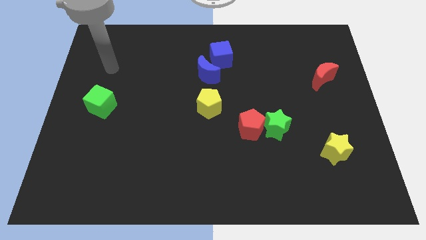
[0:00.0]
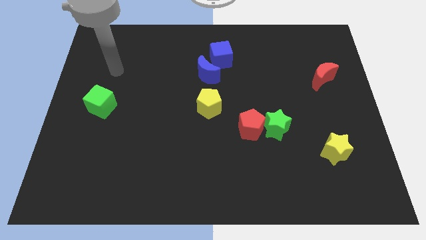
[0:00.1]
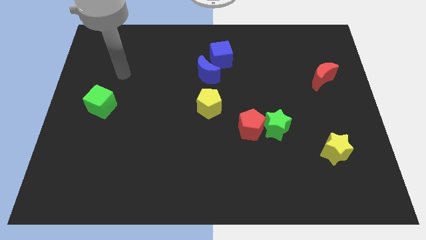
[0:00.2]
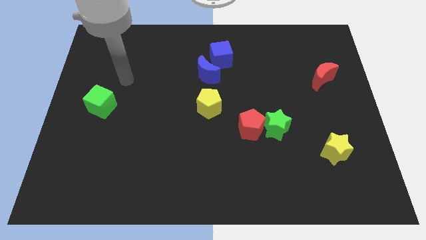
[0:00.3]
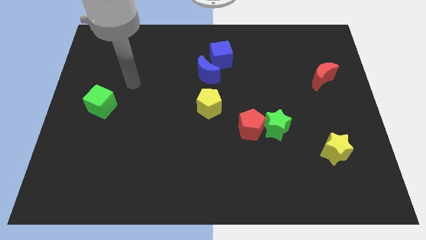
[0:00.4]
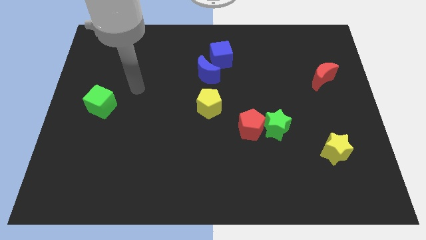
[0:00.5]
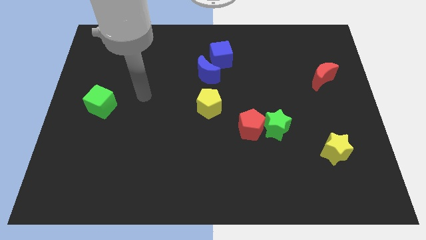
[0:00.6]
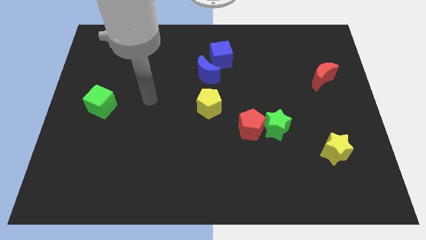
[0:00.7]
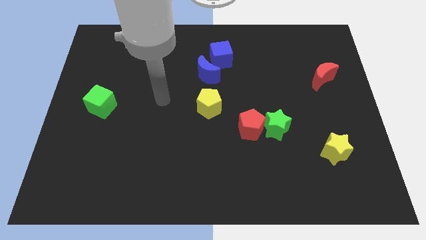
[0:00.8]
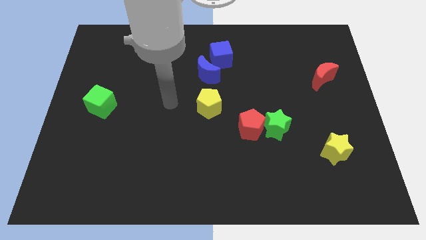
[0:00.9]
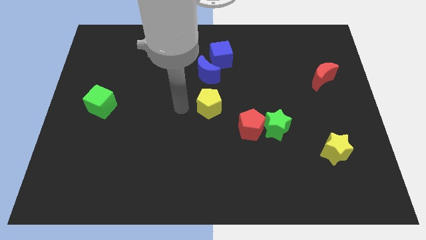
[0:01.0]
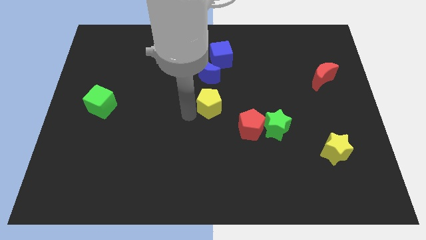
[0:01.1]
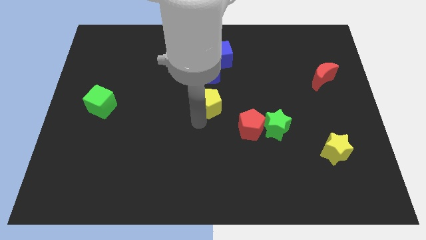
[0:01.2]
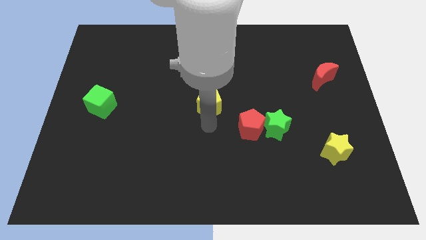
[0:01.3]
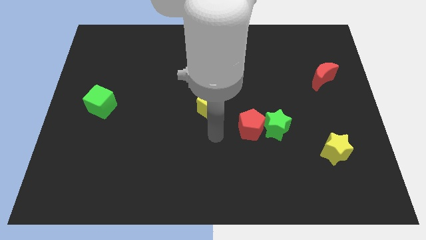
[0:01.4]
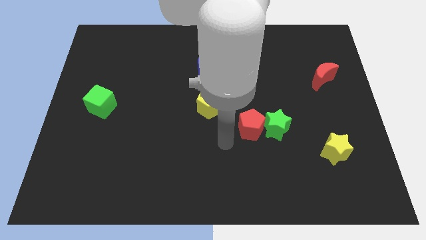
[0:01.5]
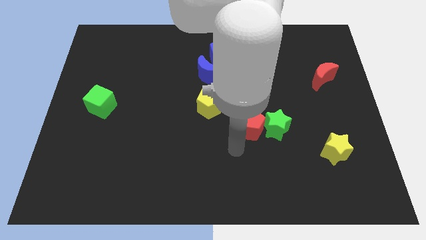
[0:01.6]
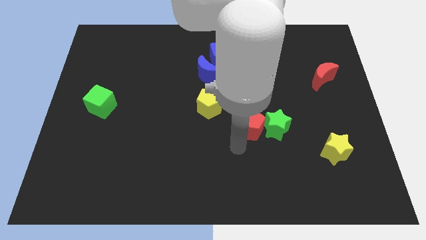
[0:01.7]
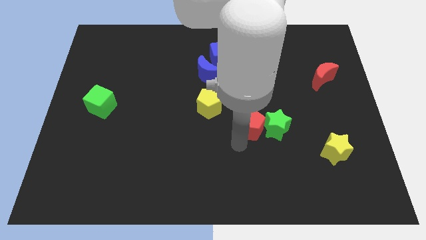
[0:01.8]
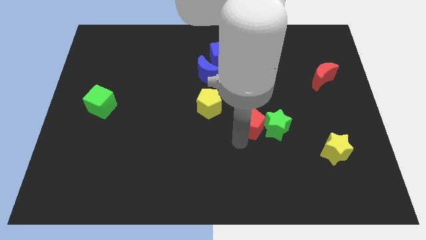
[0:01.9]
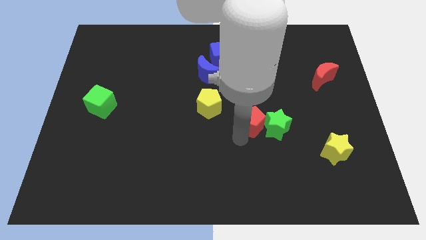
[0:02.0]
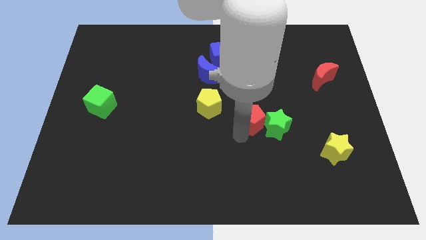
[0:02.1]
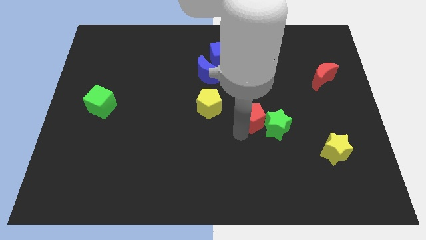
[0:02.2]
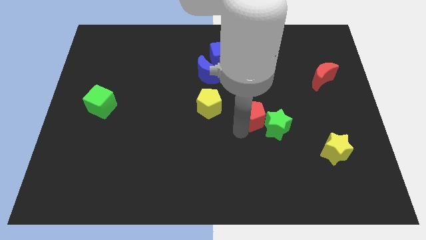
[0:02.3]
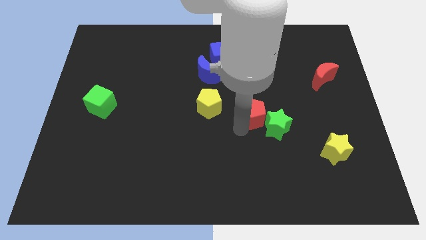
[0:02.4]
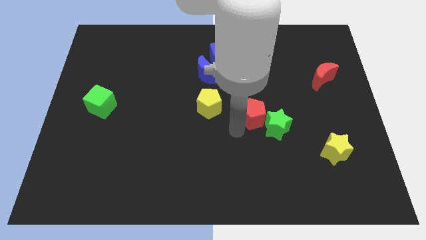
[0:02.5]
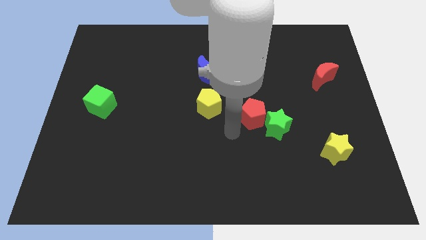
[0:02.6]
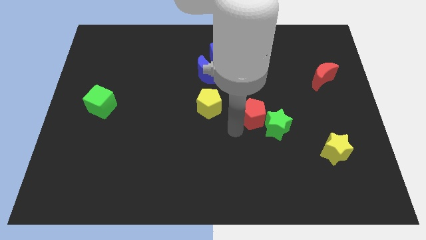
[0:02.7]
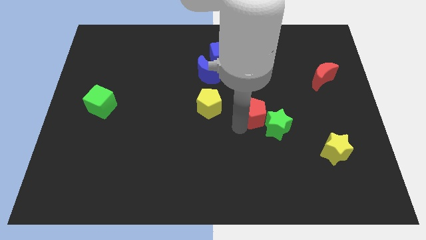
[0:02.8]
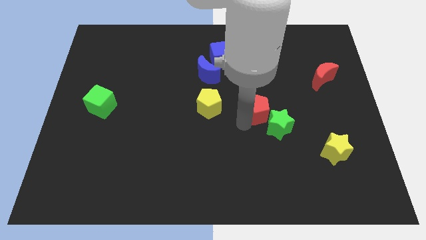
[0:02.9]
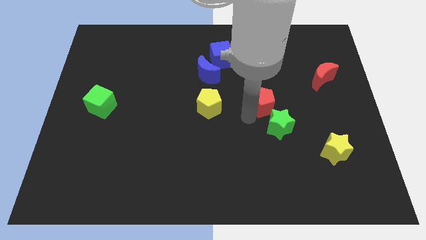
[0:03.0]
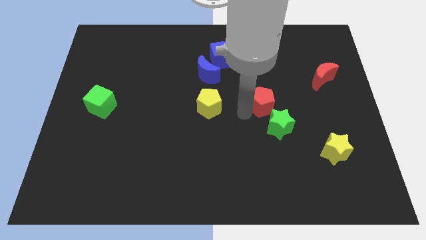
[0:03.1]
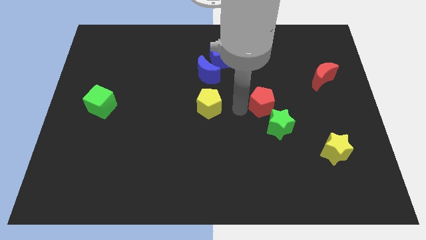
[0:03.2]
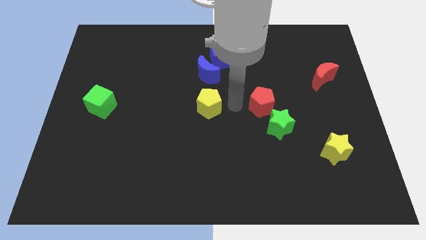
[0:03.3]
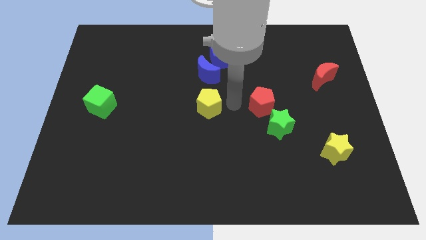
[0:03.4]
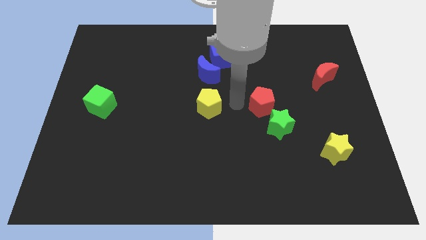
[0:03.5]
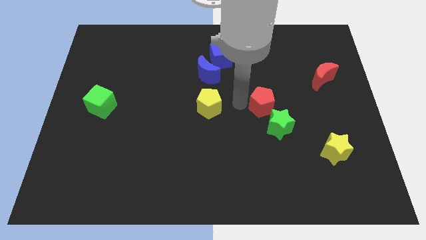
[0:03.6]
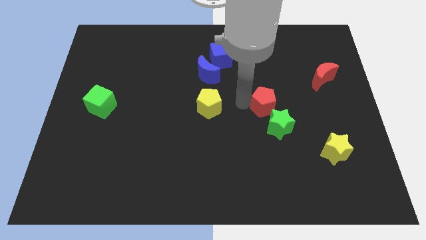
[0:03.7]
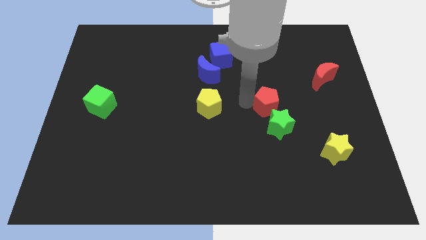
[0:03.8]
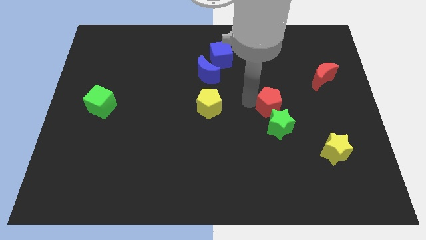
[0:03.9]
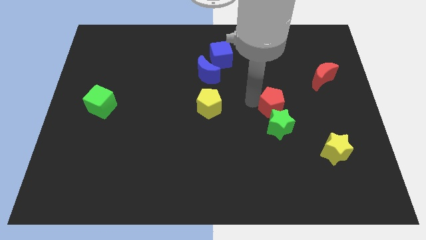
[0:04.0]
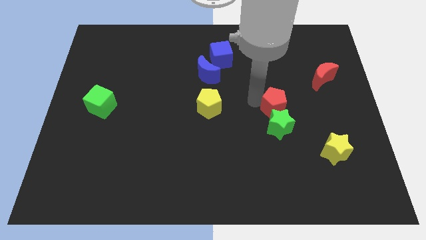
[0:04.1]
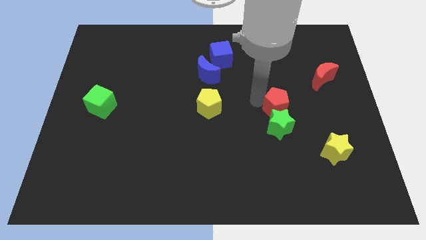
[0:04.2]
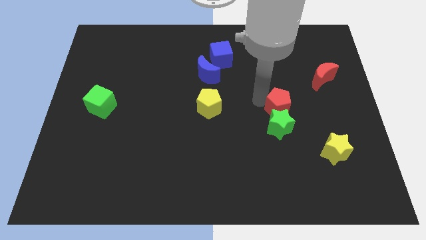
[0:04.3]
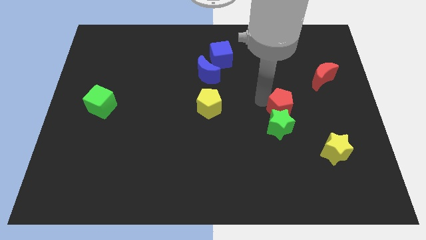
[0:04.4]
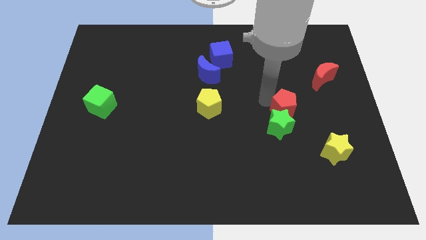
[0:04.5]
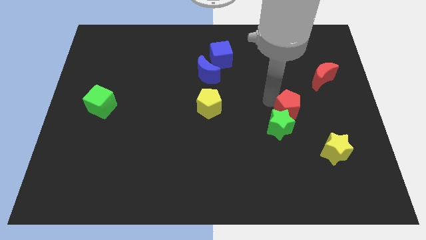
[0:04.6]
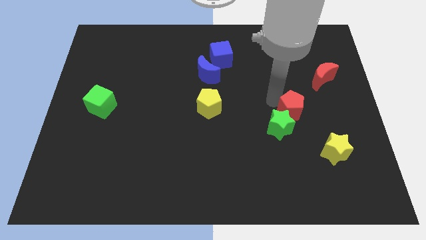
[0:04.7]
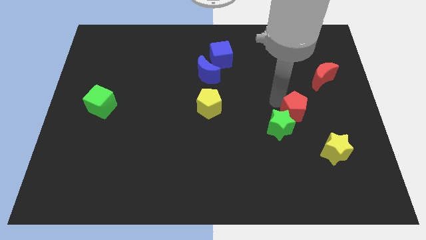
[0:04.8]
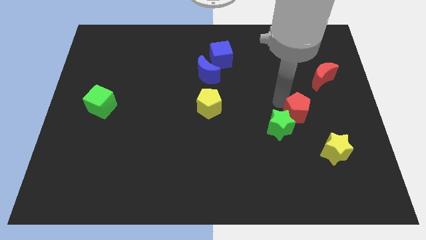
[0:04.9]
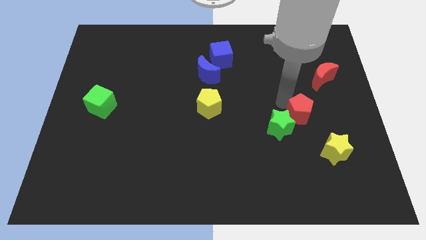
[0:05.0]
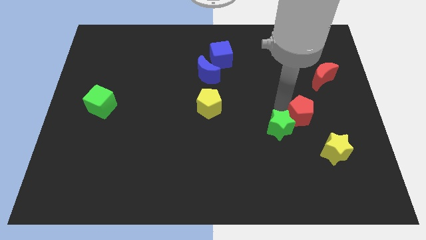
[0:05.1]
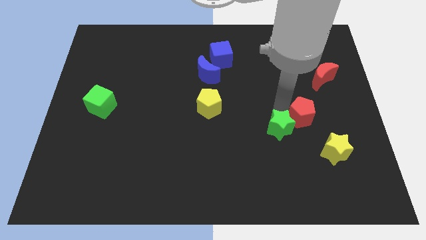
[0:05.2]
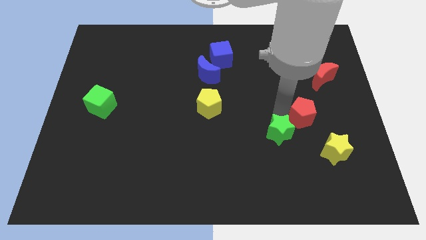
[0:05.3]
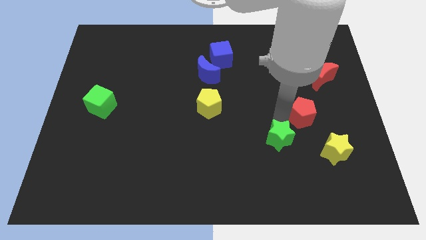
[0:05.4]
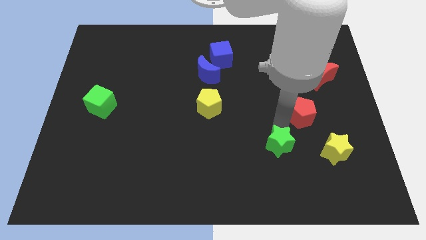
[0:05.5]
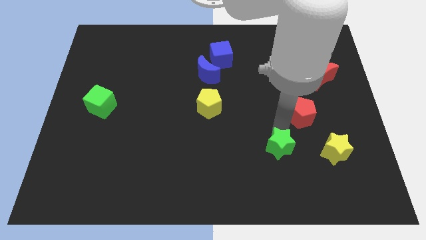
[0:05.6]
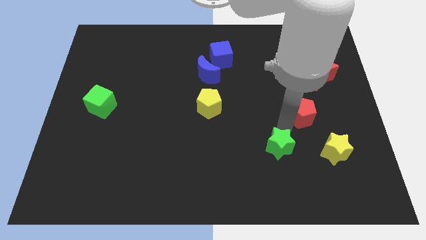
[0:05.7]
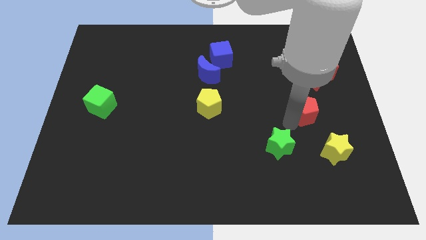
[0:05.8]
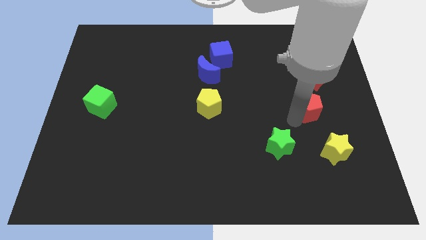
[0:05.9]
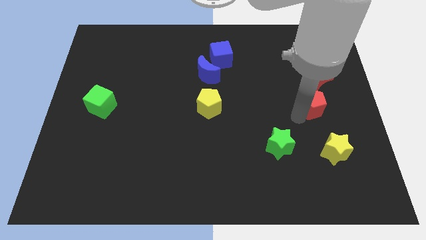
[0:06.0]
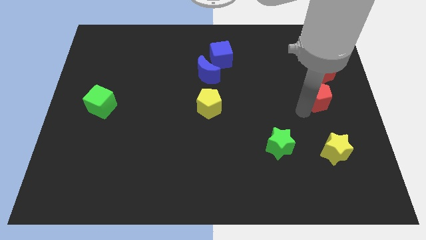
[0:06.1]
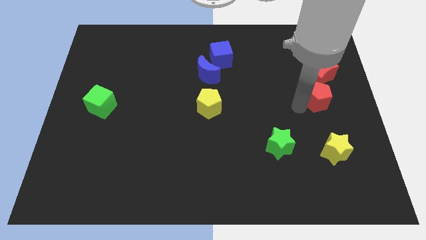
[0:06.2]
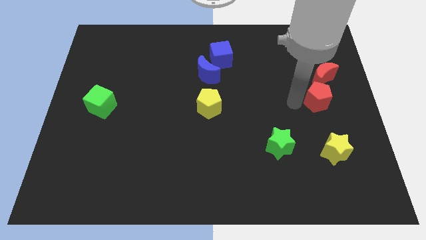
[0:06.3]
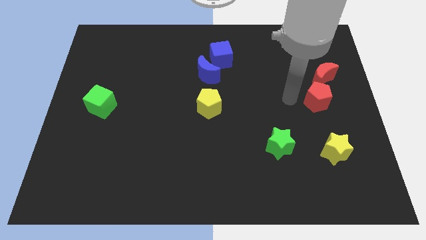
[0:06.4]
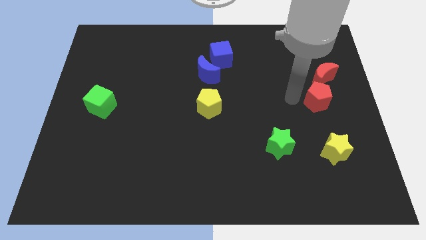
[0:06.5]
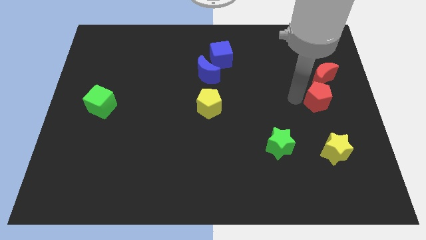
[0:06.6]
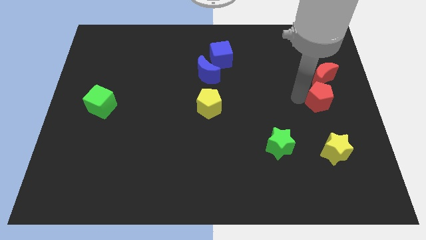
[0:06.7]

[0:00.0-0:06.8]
move the red pentagon to the center right

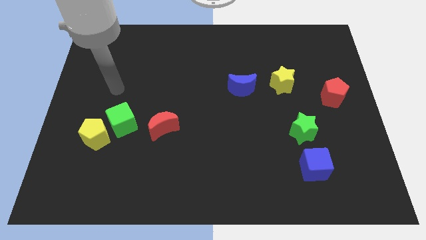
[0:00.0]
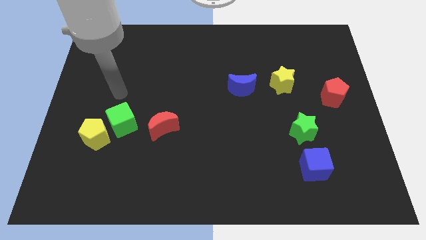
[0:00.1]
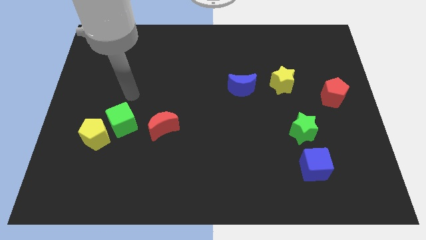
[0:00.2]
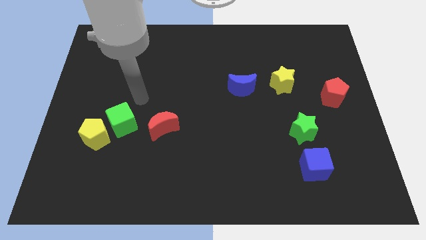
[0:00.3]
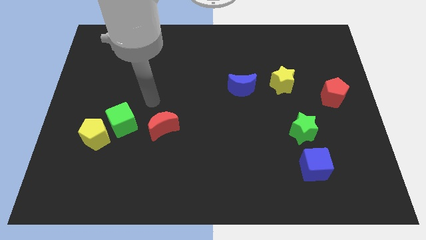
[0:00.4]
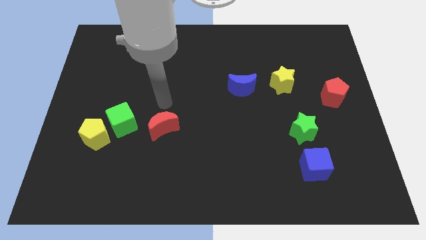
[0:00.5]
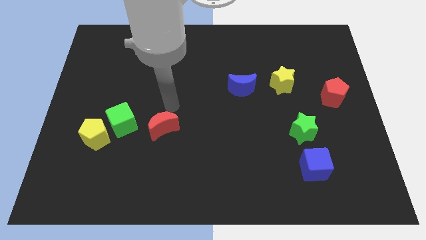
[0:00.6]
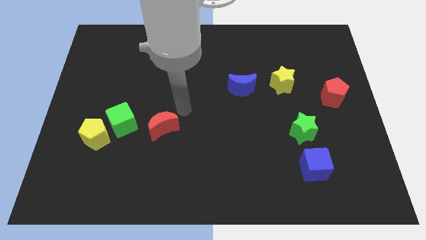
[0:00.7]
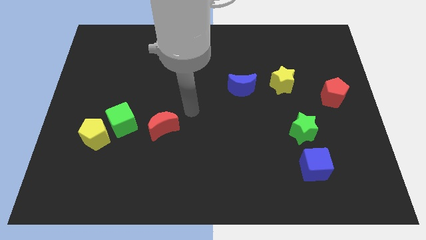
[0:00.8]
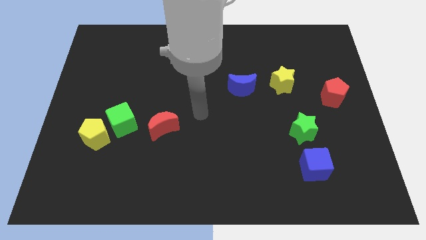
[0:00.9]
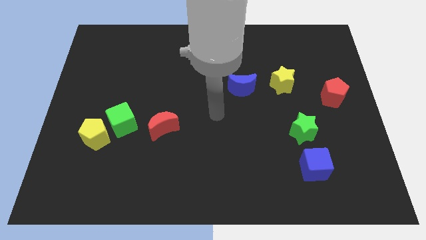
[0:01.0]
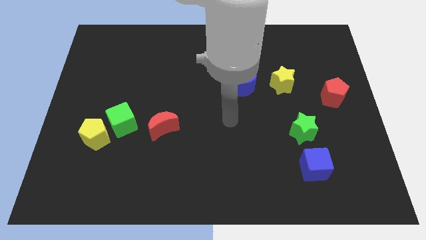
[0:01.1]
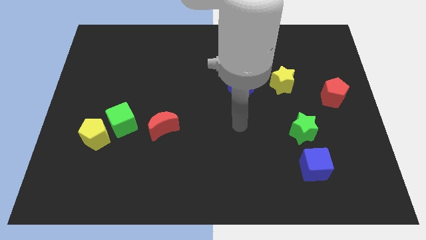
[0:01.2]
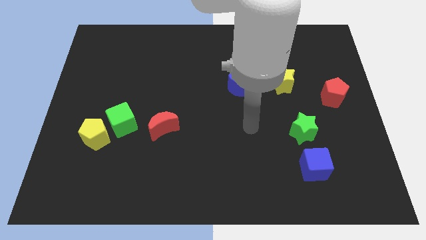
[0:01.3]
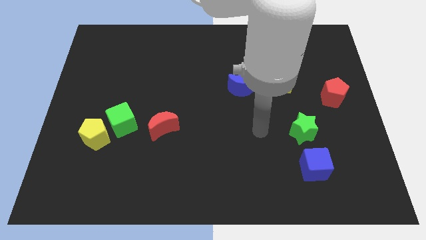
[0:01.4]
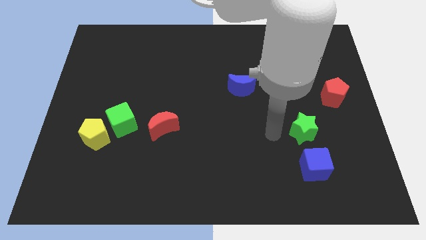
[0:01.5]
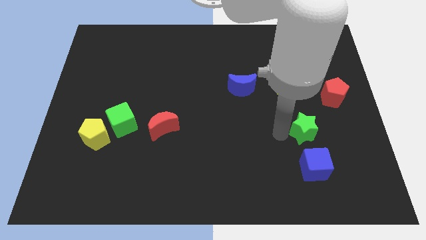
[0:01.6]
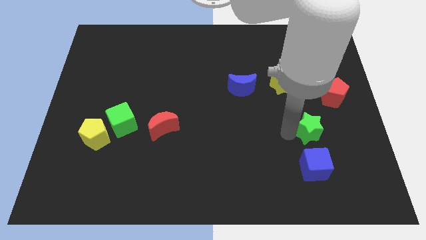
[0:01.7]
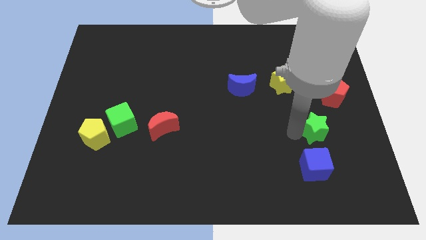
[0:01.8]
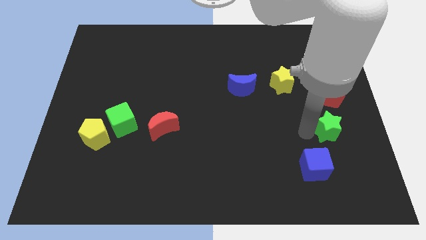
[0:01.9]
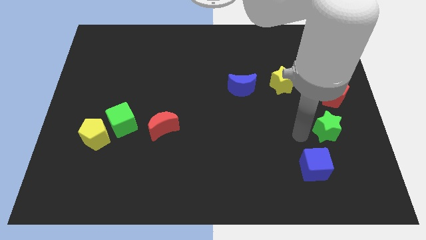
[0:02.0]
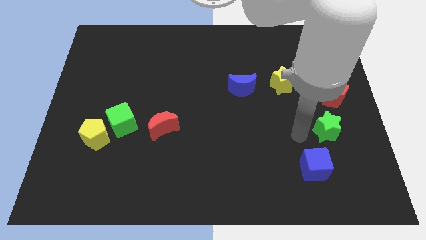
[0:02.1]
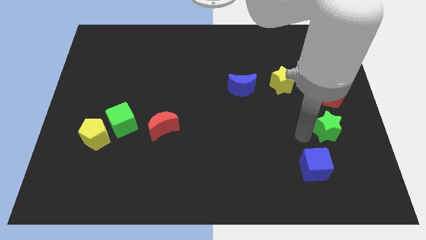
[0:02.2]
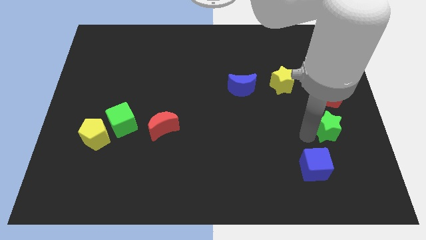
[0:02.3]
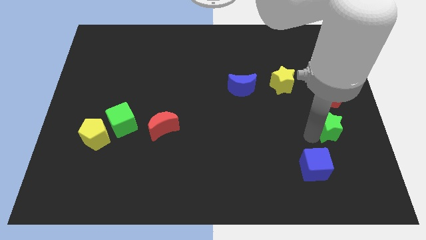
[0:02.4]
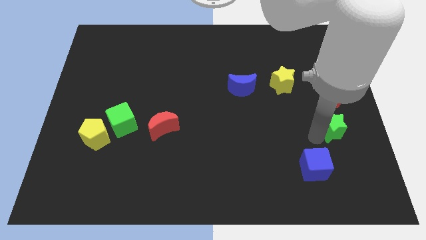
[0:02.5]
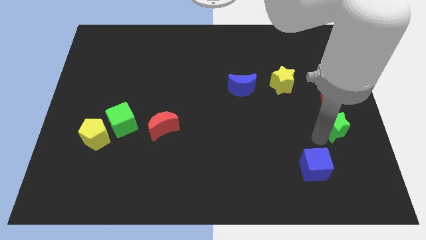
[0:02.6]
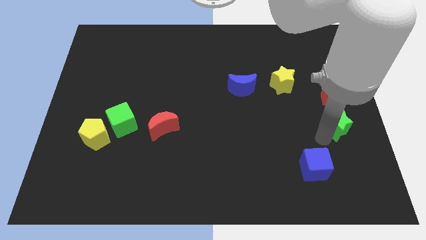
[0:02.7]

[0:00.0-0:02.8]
move the green star to the right side
